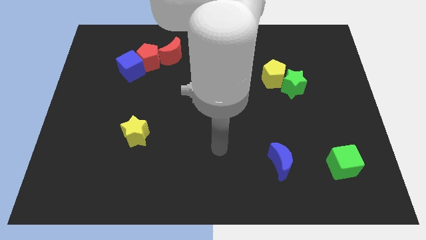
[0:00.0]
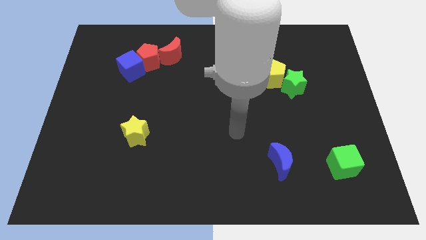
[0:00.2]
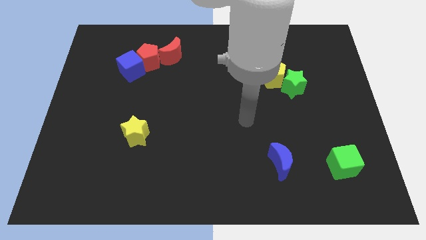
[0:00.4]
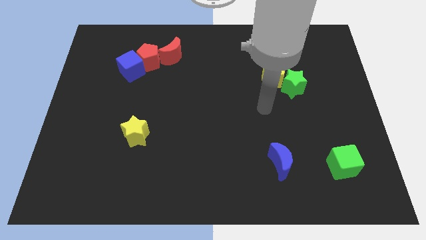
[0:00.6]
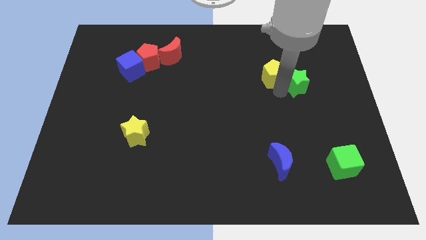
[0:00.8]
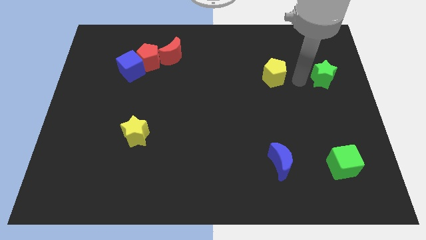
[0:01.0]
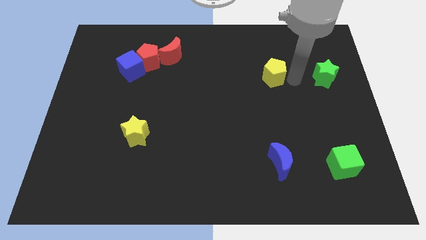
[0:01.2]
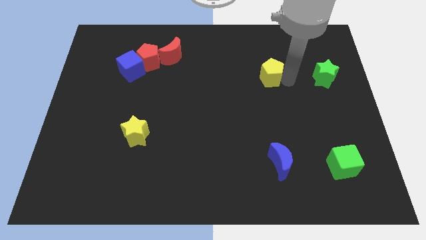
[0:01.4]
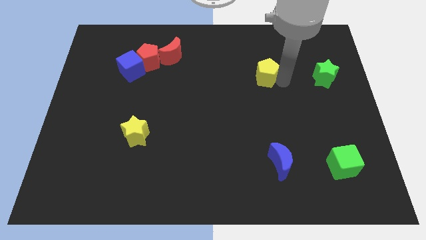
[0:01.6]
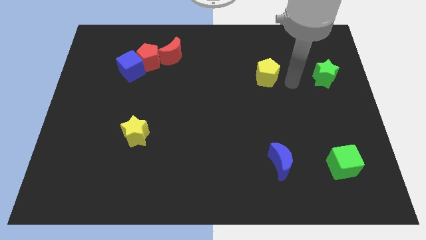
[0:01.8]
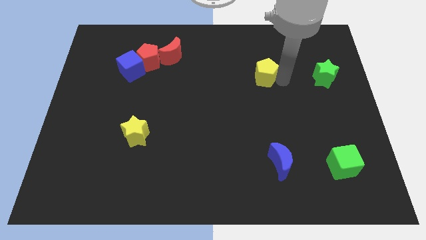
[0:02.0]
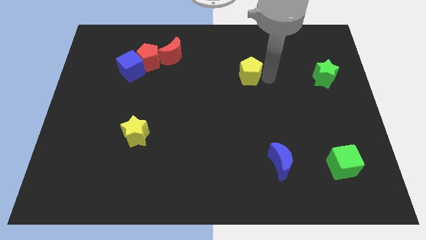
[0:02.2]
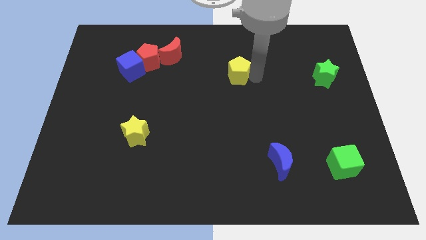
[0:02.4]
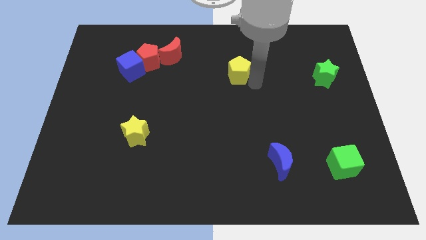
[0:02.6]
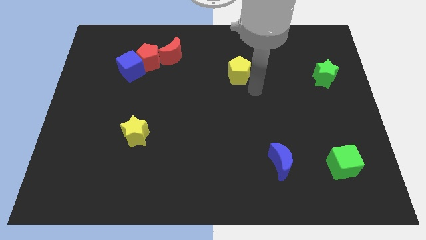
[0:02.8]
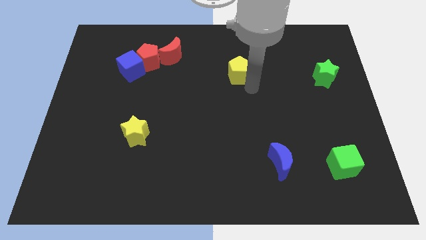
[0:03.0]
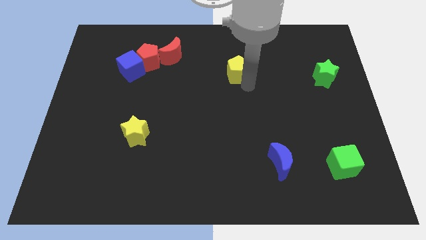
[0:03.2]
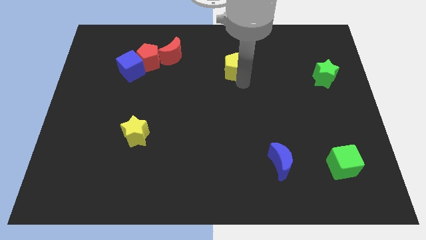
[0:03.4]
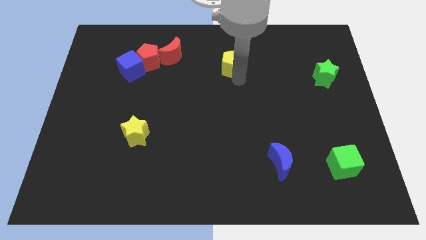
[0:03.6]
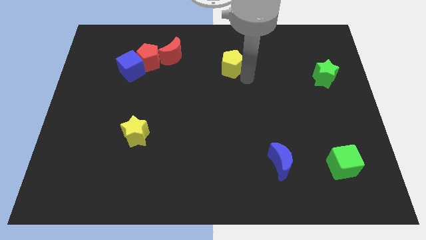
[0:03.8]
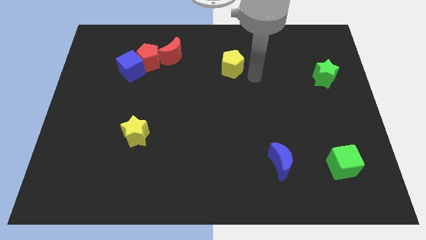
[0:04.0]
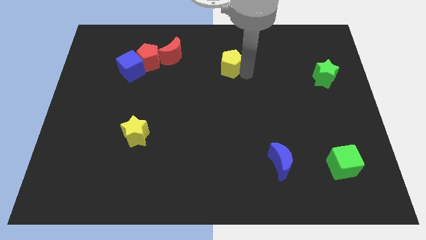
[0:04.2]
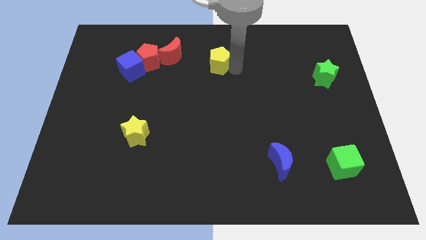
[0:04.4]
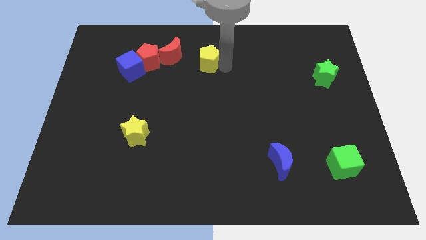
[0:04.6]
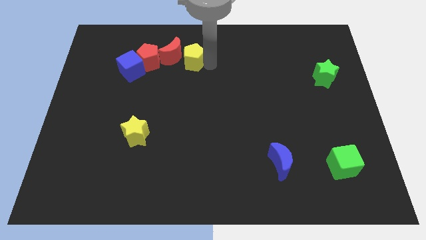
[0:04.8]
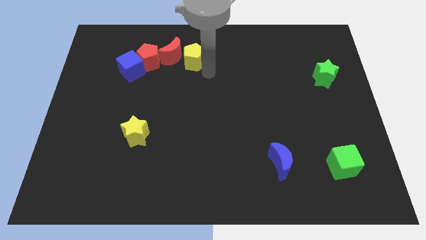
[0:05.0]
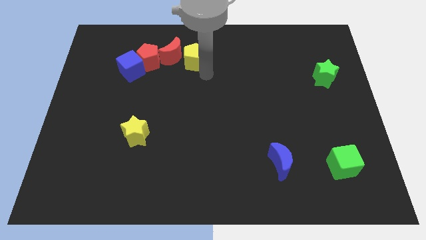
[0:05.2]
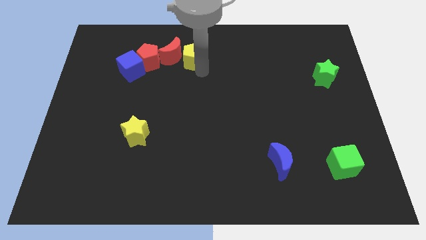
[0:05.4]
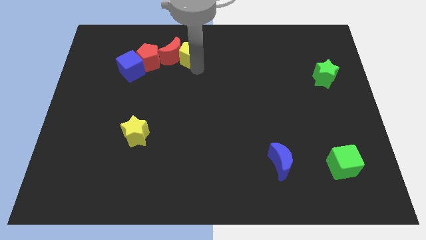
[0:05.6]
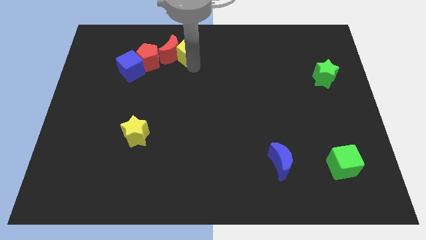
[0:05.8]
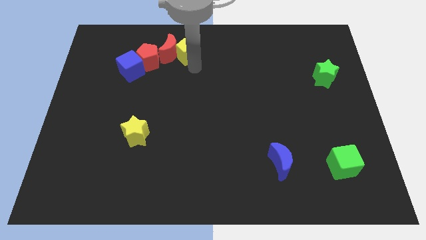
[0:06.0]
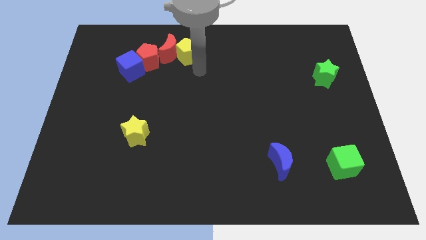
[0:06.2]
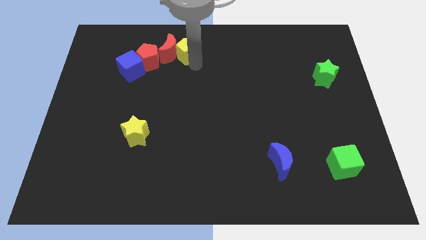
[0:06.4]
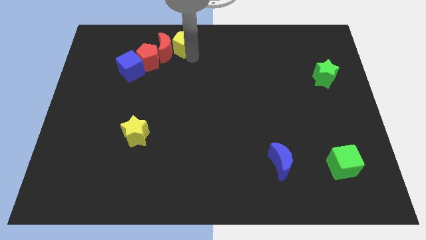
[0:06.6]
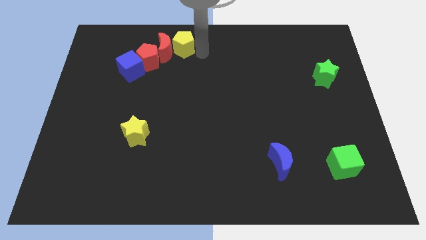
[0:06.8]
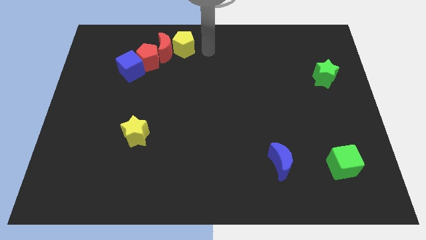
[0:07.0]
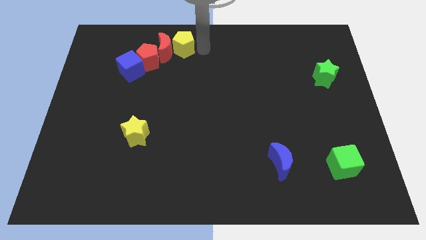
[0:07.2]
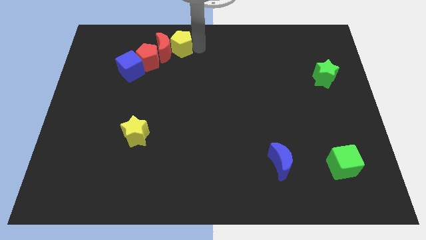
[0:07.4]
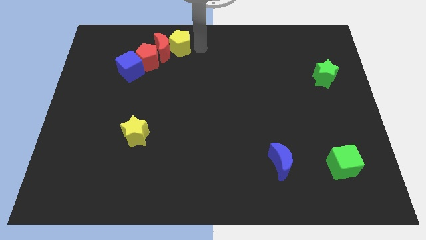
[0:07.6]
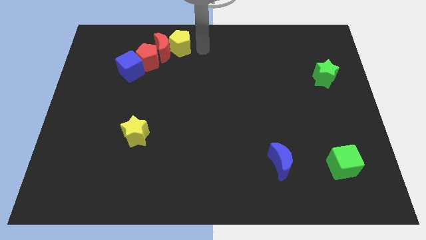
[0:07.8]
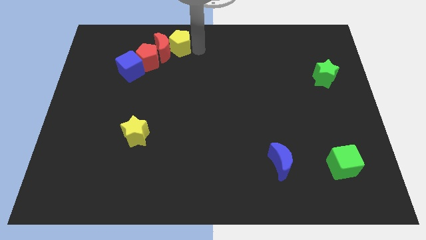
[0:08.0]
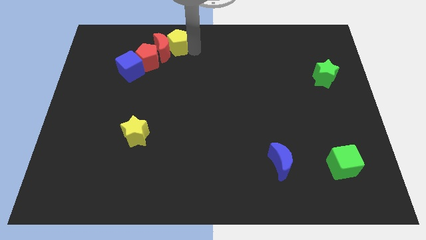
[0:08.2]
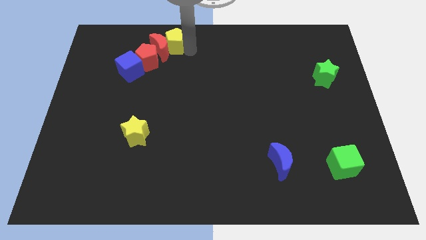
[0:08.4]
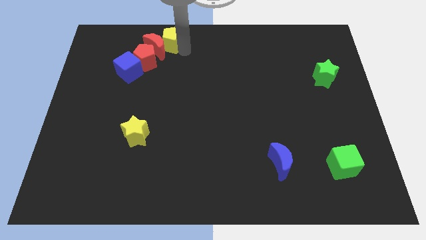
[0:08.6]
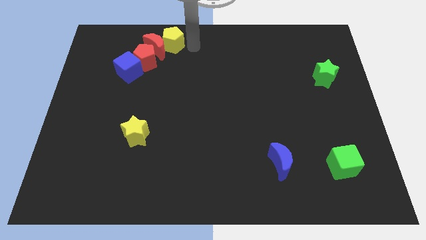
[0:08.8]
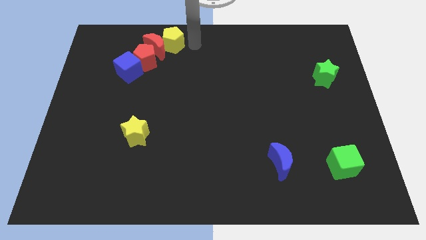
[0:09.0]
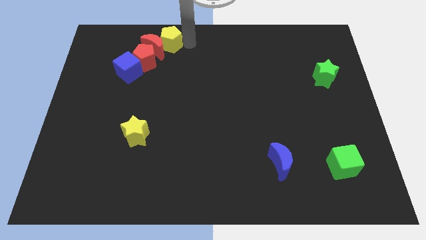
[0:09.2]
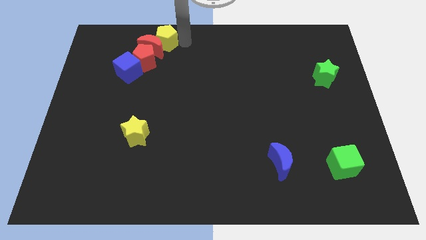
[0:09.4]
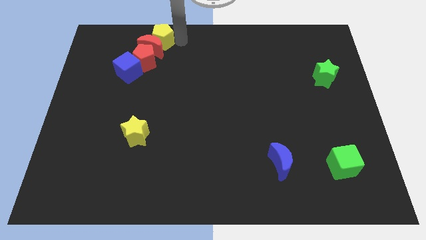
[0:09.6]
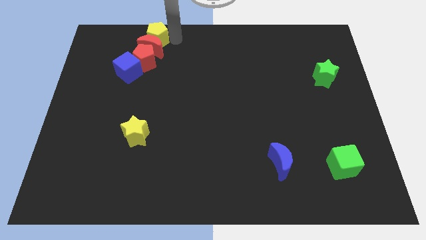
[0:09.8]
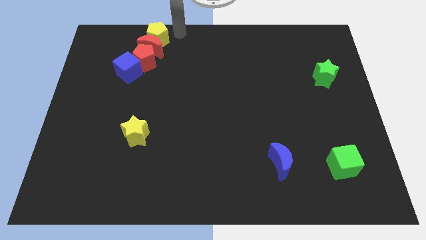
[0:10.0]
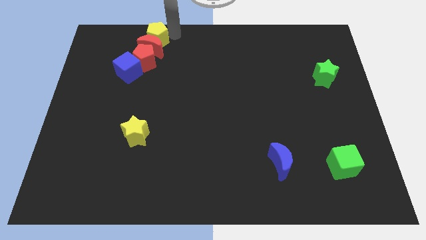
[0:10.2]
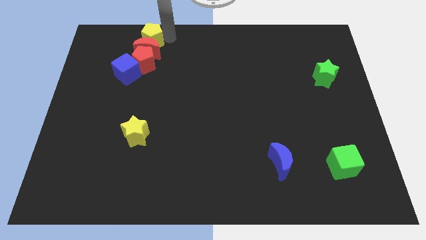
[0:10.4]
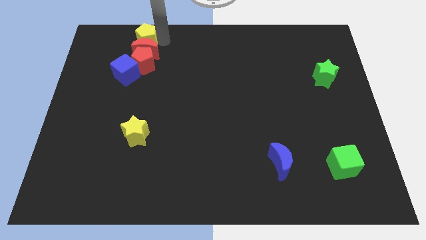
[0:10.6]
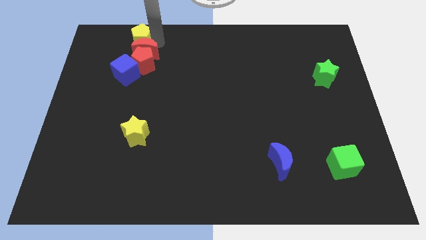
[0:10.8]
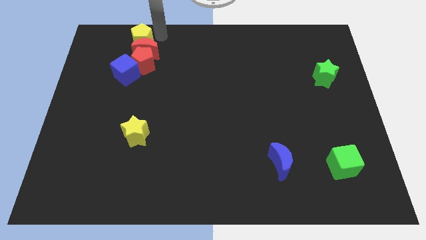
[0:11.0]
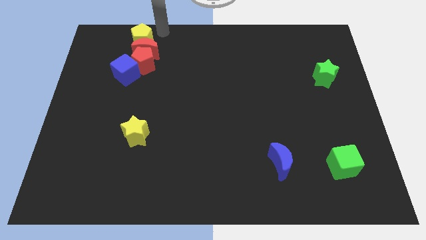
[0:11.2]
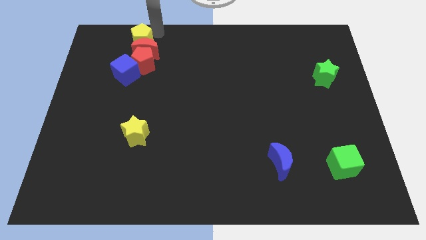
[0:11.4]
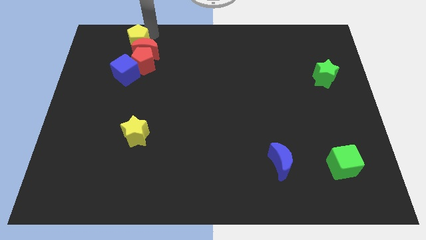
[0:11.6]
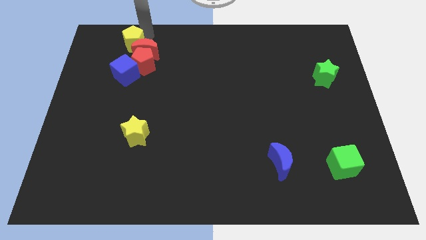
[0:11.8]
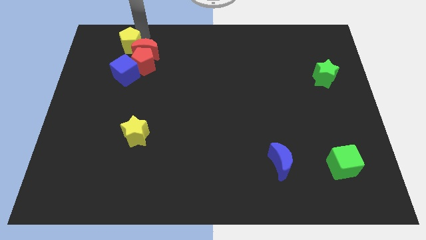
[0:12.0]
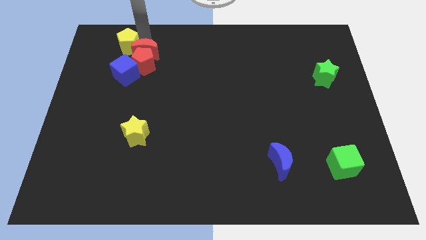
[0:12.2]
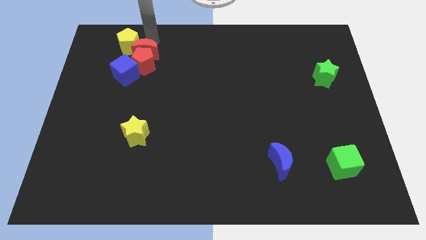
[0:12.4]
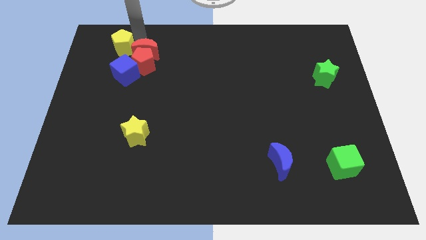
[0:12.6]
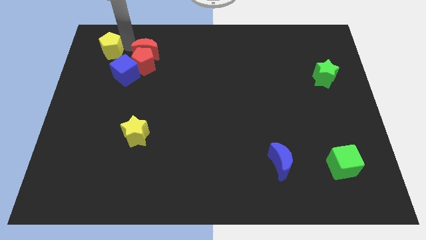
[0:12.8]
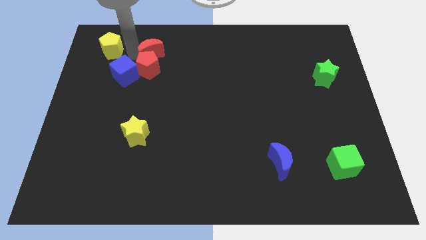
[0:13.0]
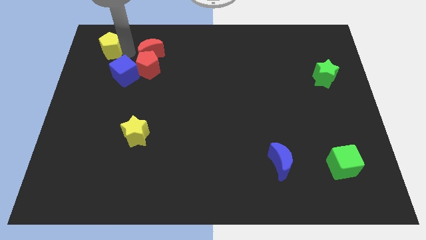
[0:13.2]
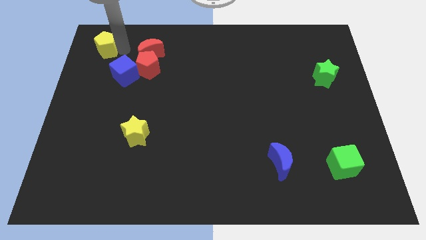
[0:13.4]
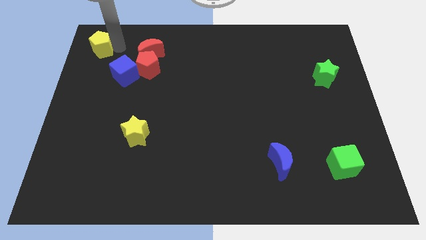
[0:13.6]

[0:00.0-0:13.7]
move the yellow pentagon to the top left
